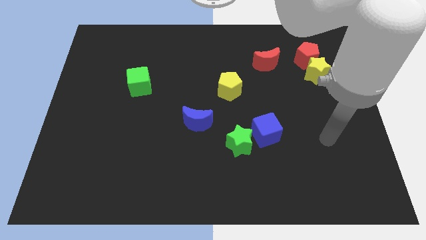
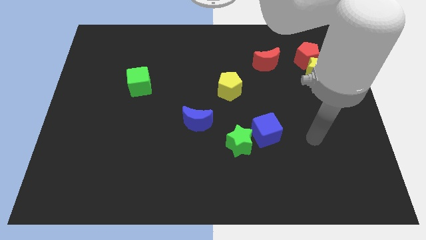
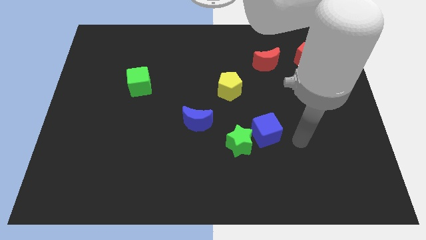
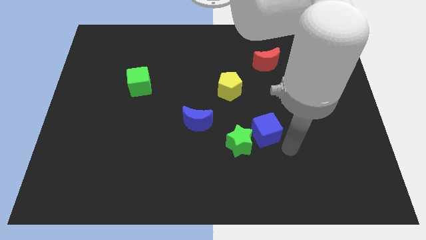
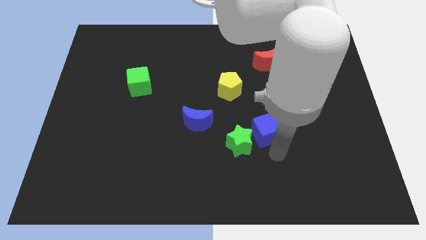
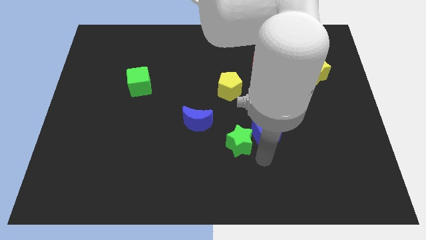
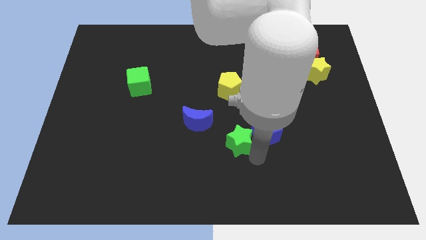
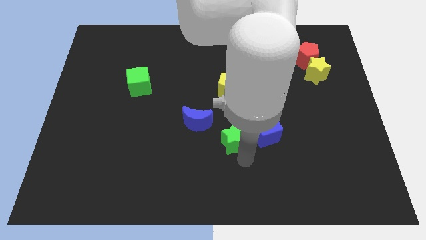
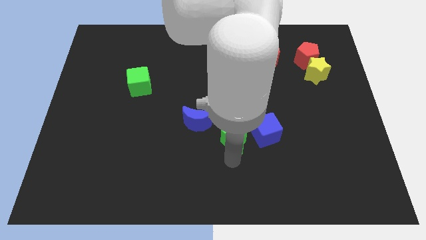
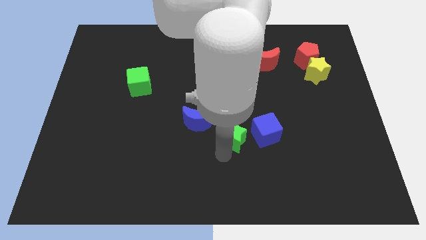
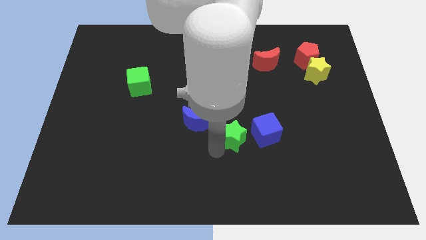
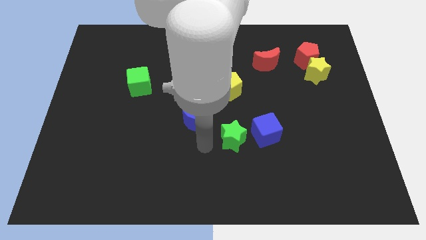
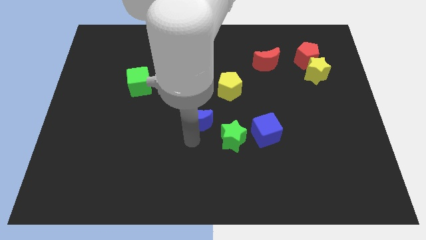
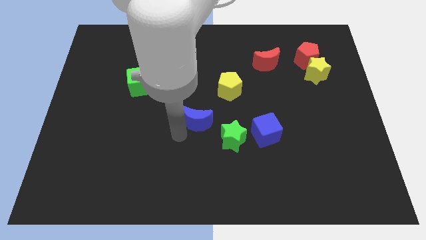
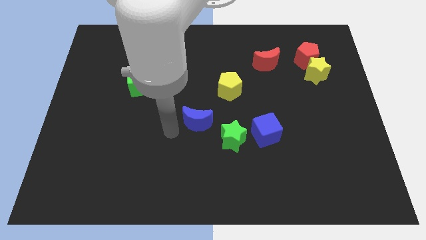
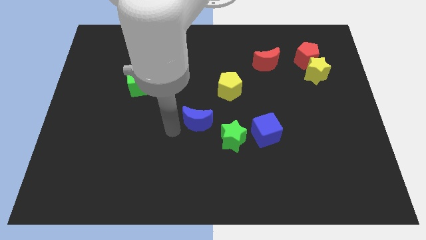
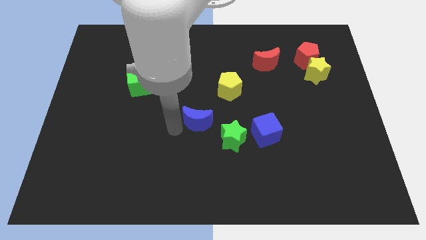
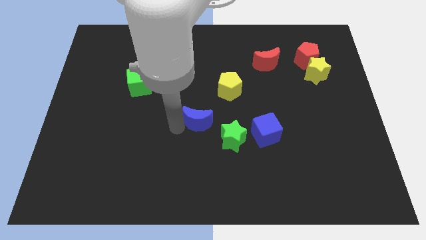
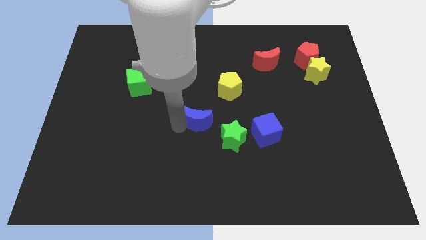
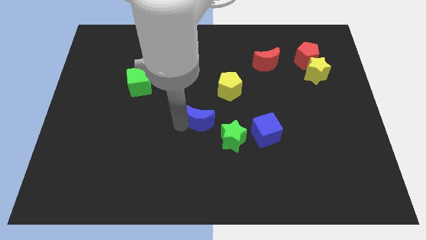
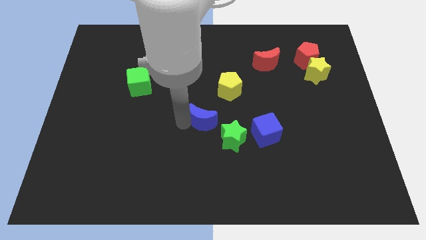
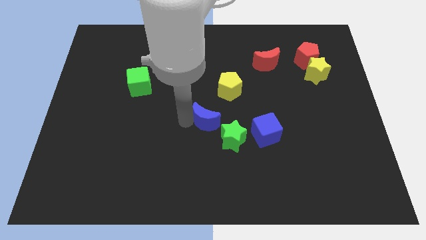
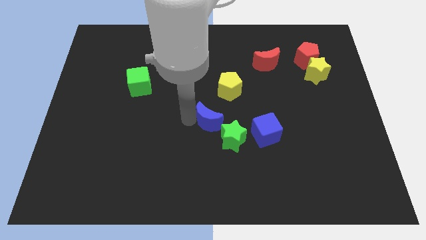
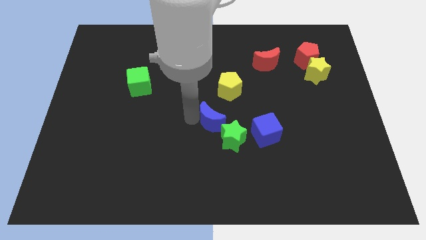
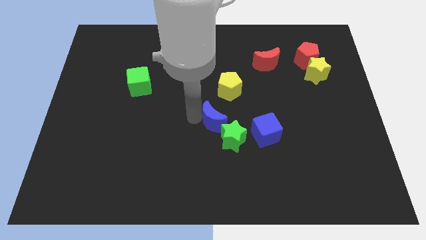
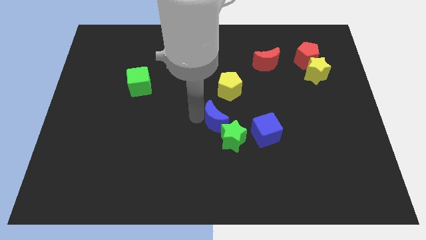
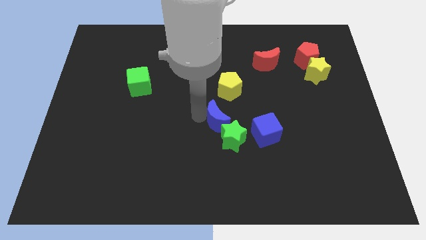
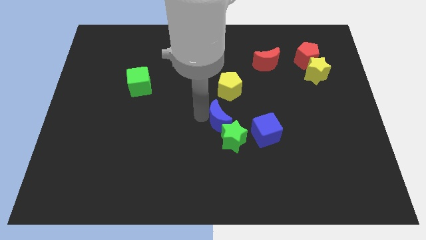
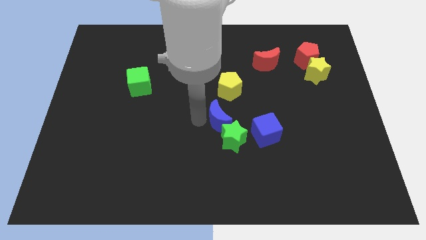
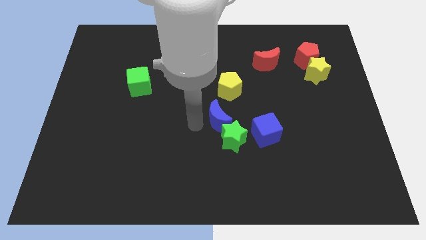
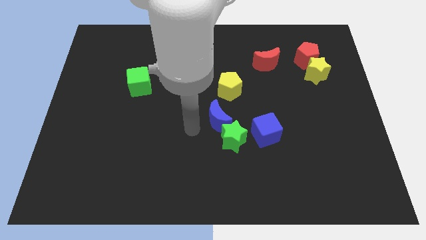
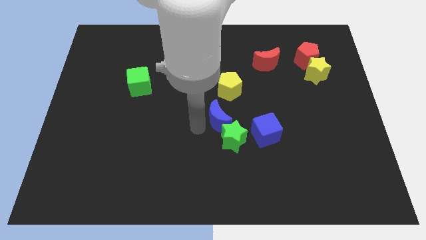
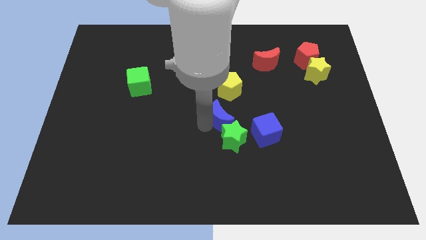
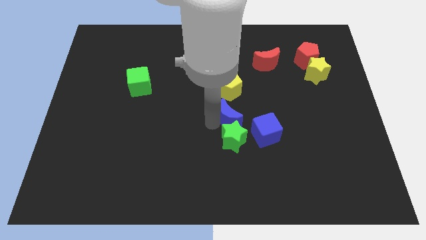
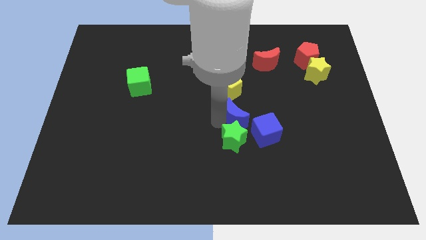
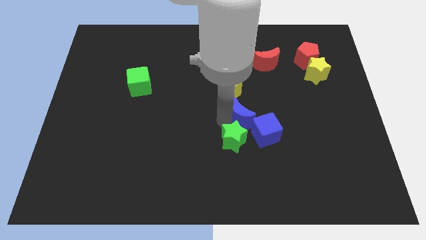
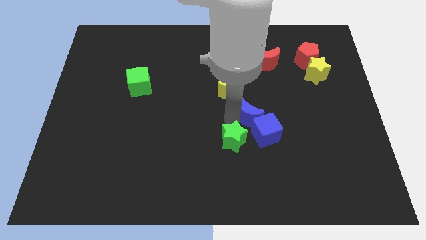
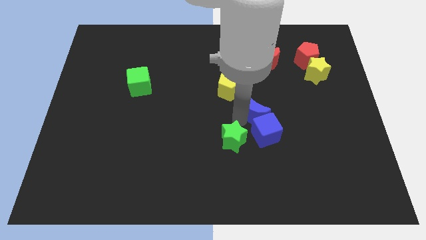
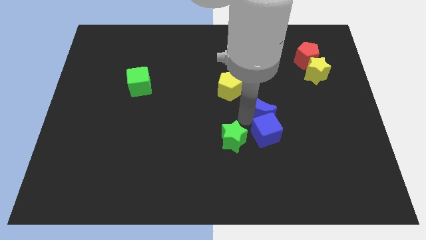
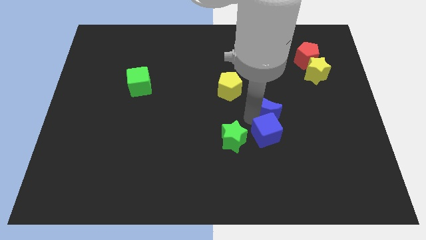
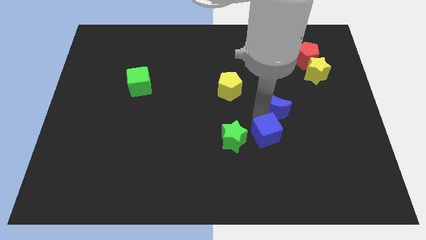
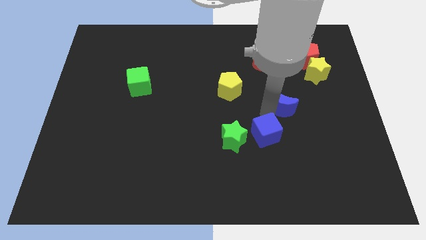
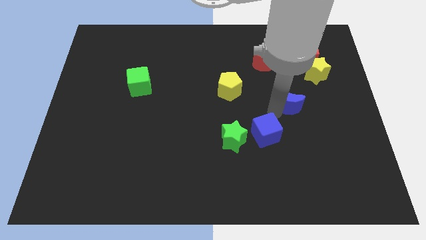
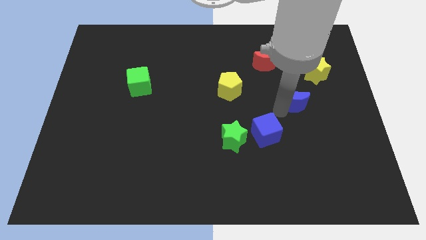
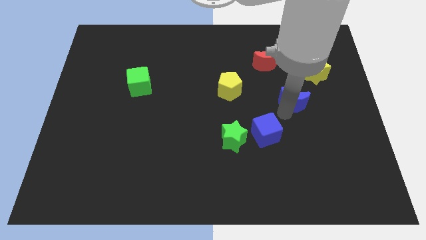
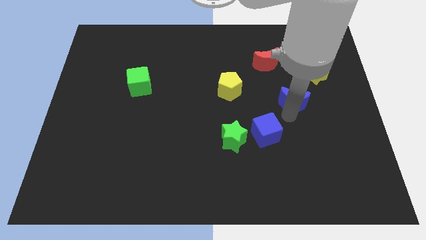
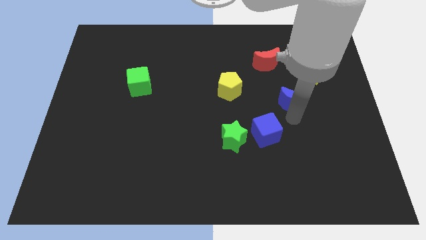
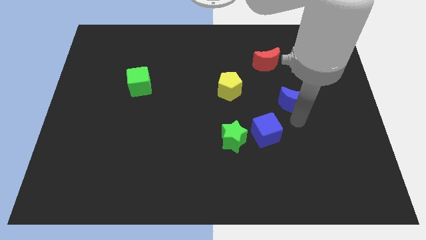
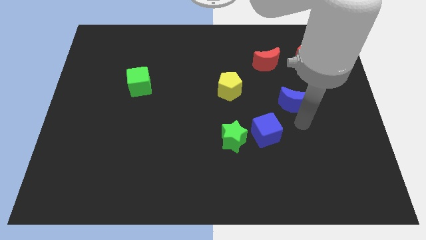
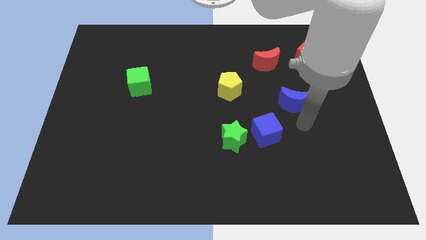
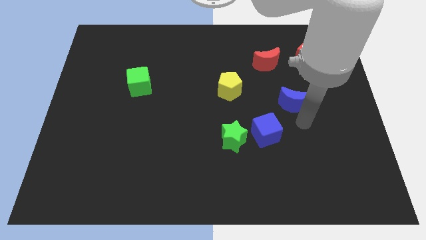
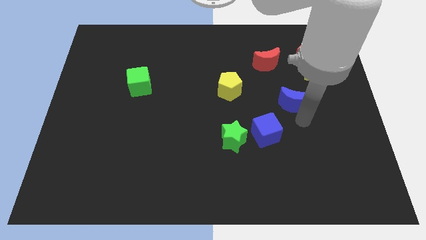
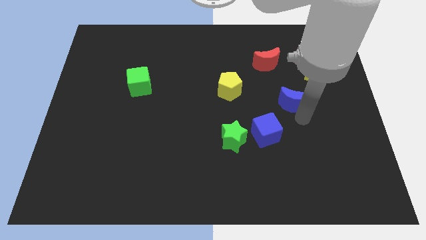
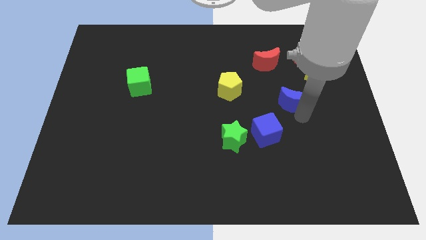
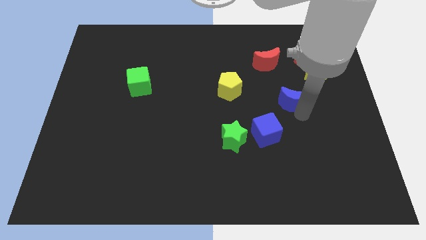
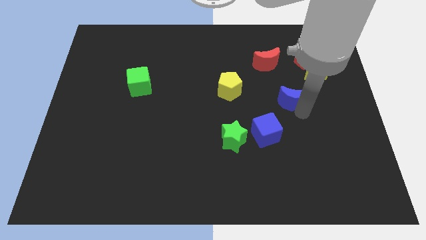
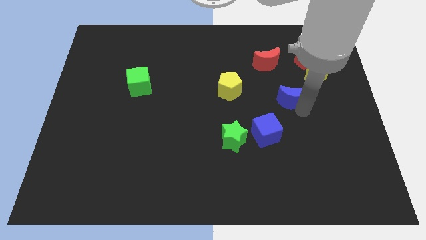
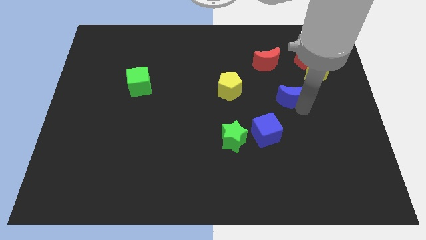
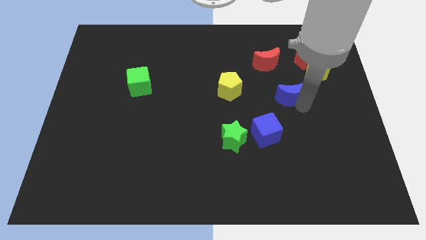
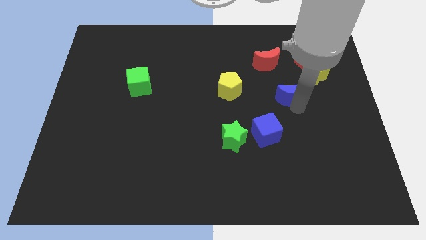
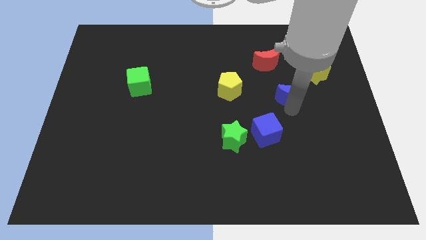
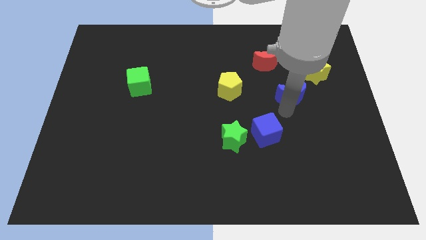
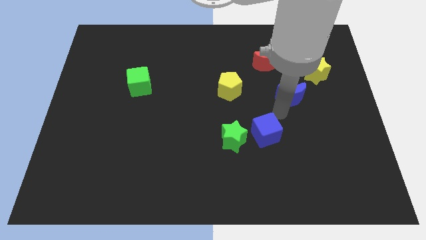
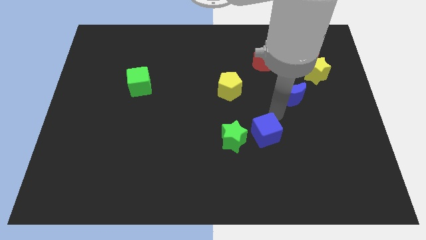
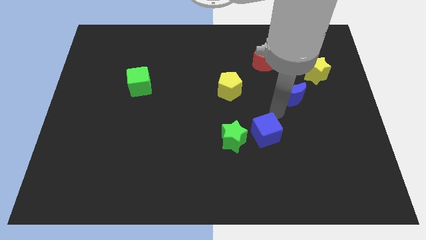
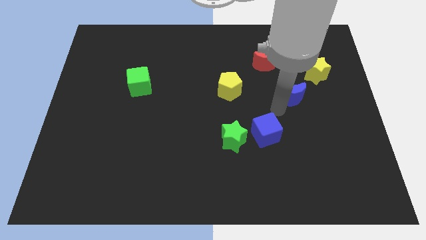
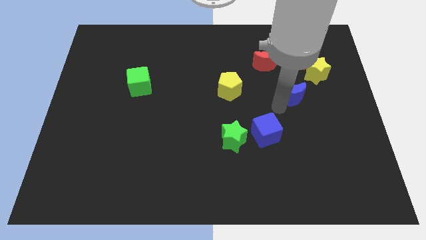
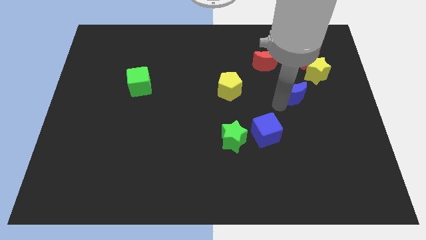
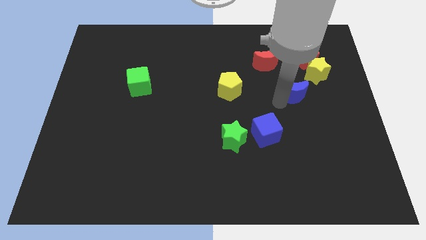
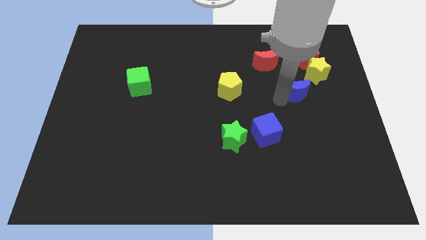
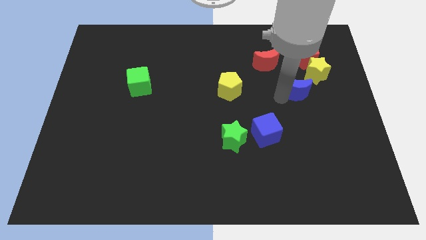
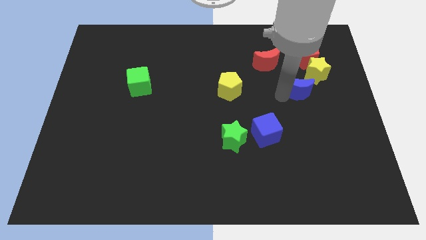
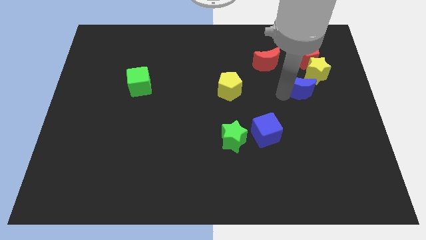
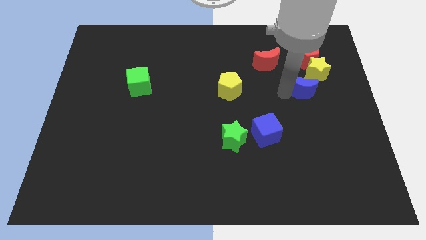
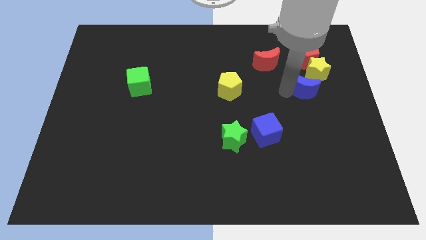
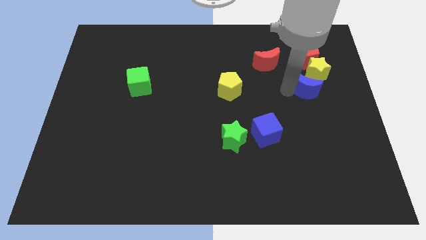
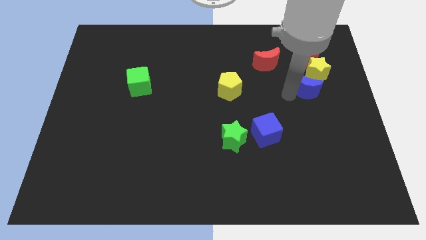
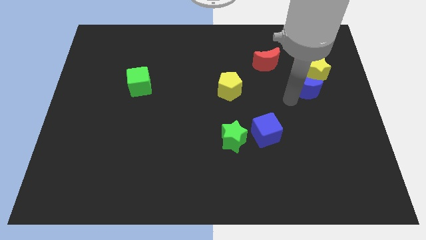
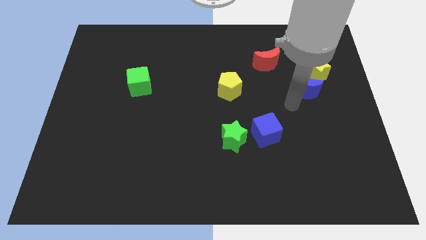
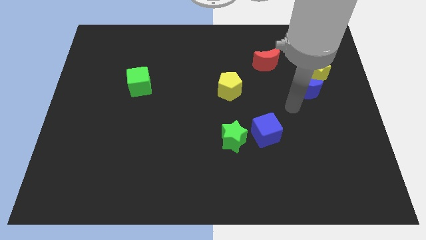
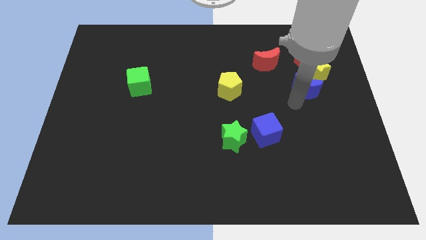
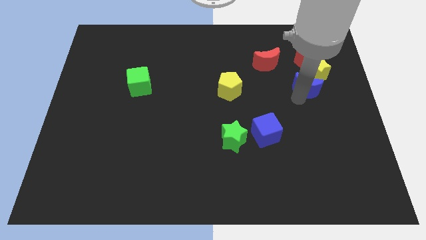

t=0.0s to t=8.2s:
move the blue moon towards the yellow star
